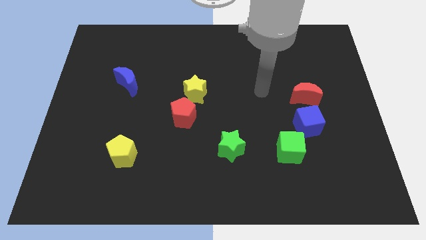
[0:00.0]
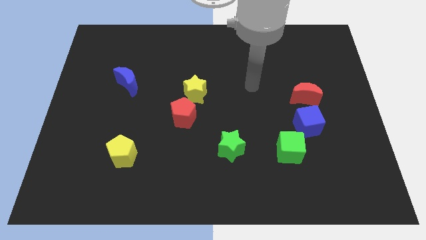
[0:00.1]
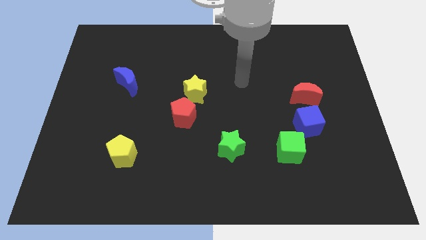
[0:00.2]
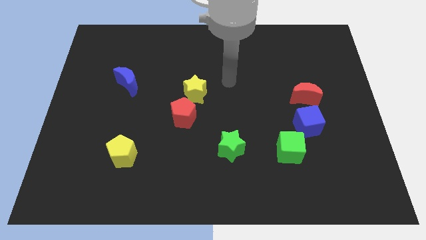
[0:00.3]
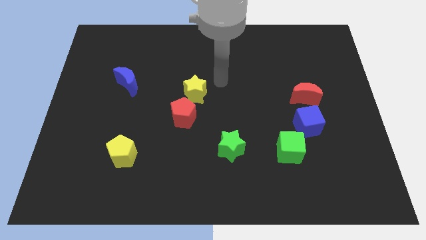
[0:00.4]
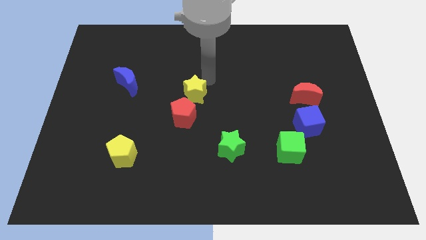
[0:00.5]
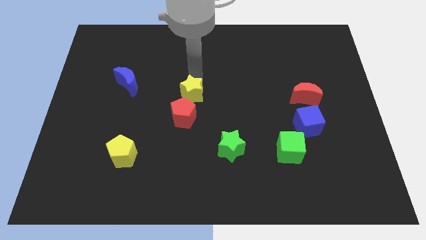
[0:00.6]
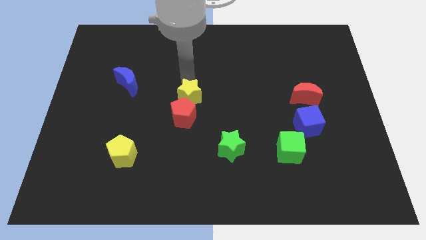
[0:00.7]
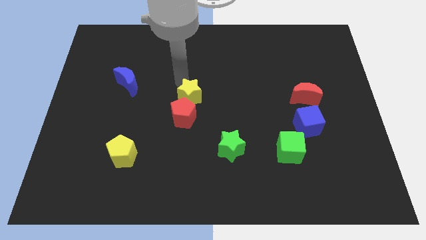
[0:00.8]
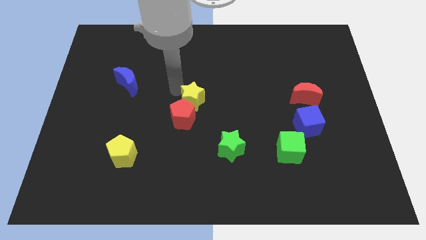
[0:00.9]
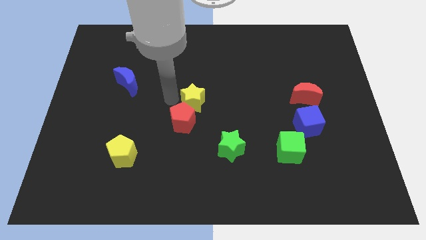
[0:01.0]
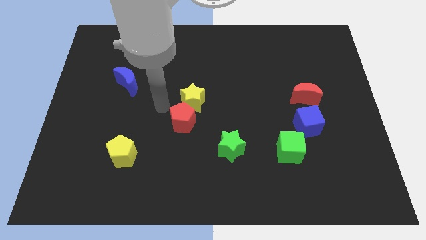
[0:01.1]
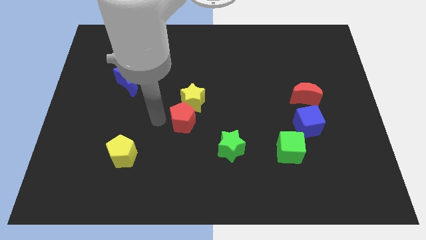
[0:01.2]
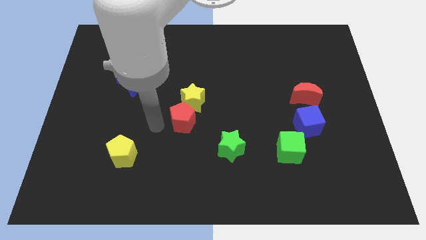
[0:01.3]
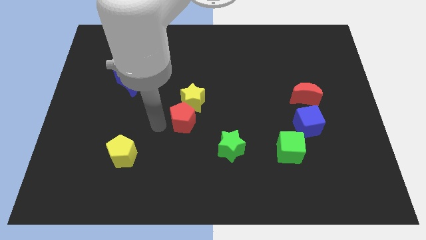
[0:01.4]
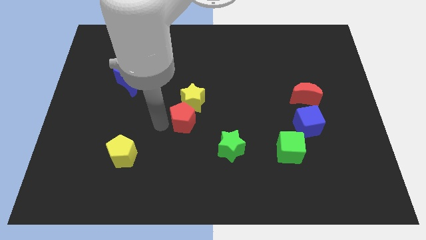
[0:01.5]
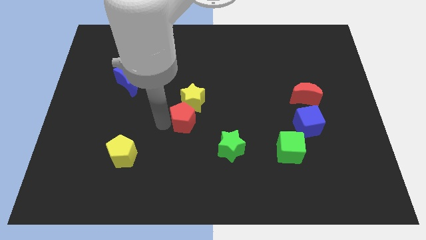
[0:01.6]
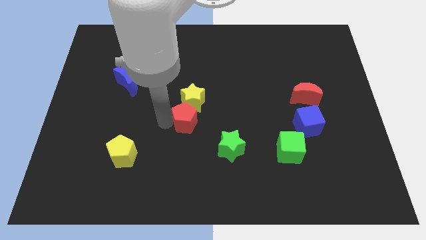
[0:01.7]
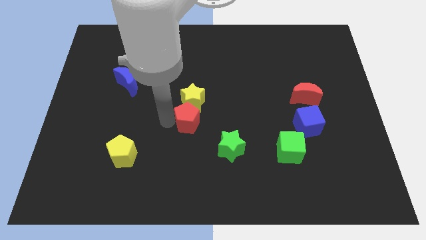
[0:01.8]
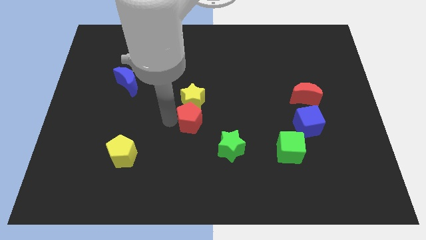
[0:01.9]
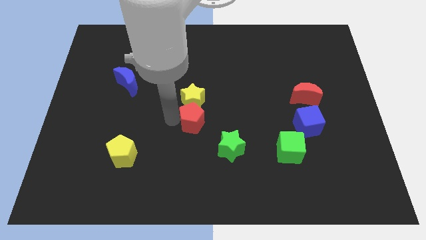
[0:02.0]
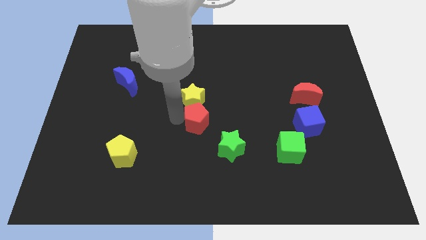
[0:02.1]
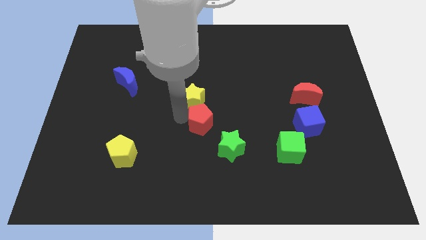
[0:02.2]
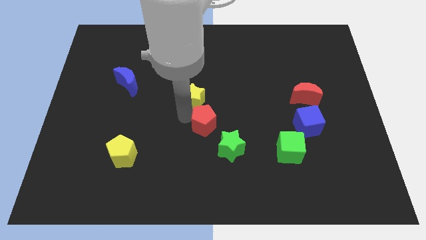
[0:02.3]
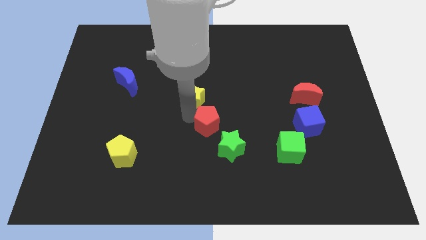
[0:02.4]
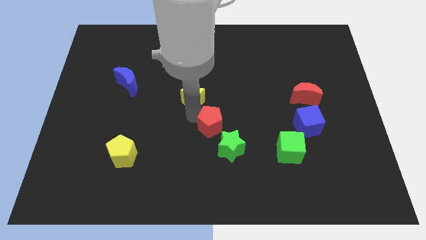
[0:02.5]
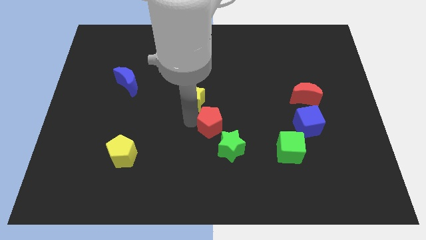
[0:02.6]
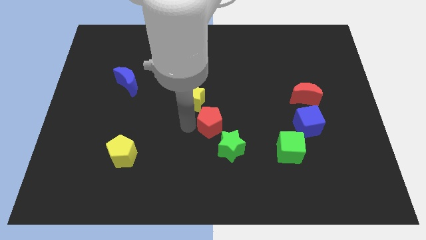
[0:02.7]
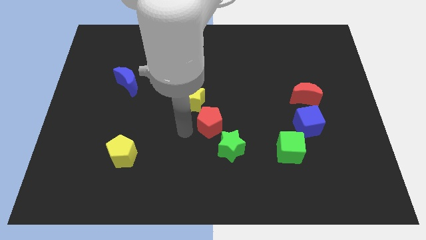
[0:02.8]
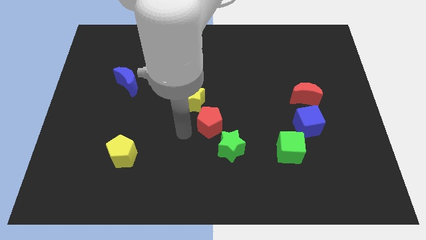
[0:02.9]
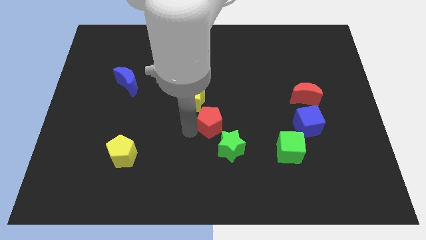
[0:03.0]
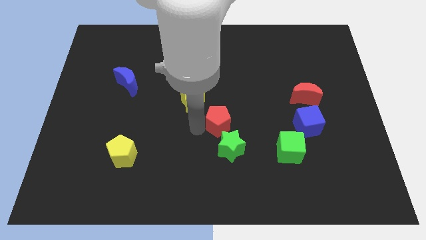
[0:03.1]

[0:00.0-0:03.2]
move the red pentagon a little bit right

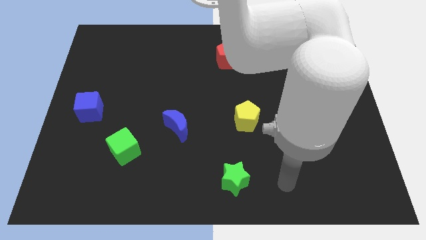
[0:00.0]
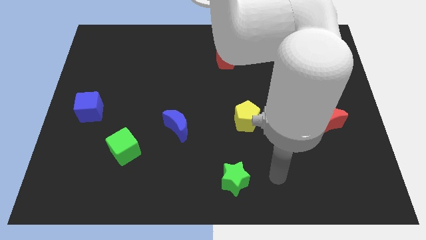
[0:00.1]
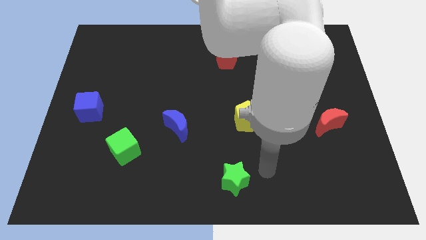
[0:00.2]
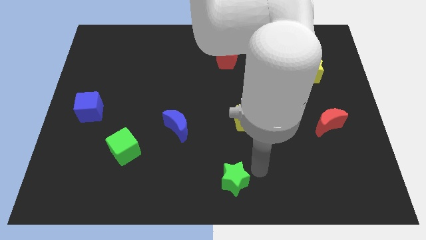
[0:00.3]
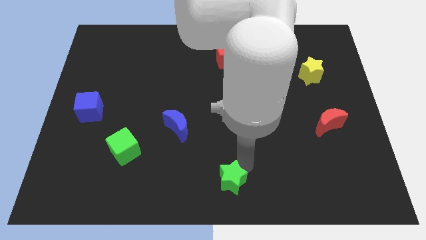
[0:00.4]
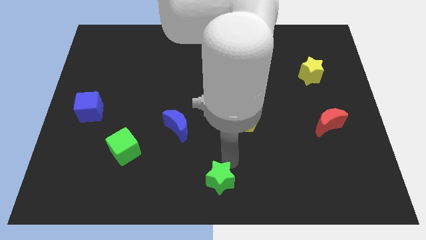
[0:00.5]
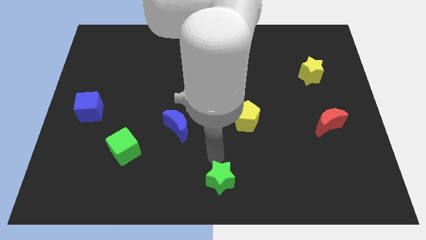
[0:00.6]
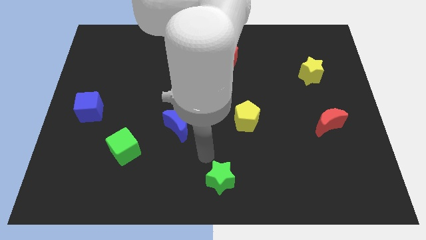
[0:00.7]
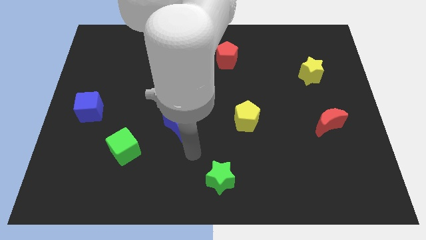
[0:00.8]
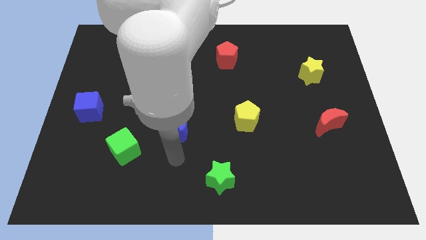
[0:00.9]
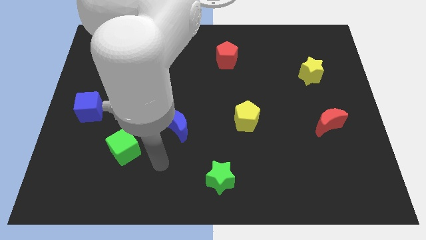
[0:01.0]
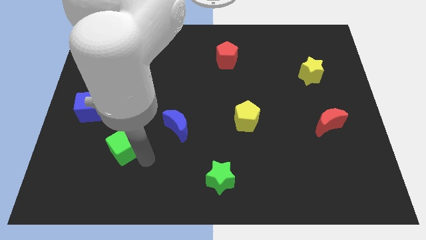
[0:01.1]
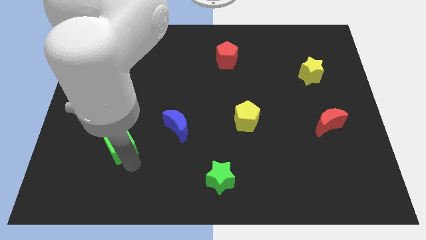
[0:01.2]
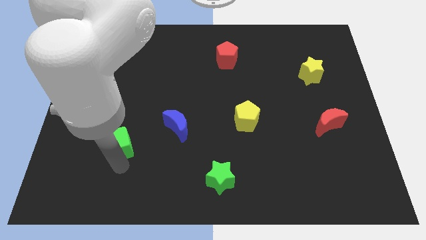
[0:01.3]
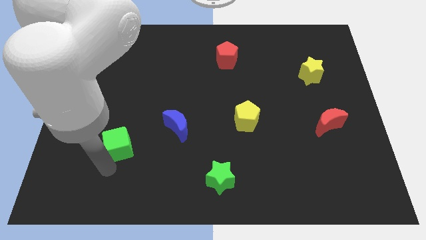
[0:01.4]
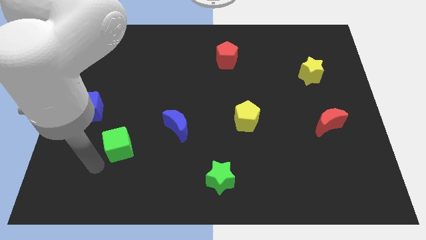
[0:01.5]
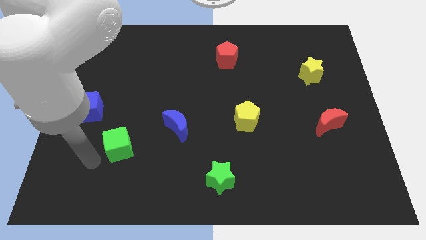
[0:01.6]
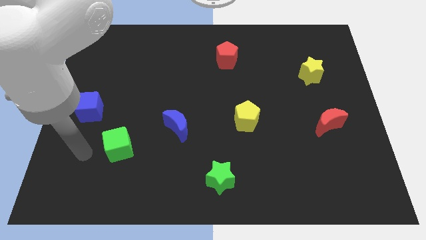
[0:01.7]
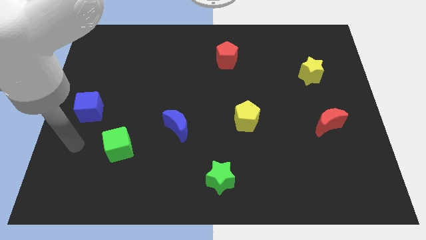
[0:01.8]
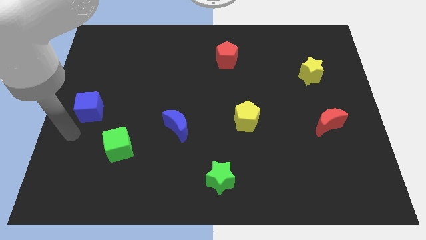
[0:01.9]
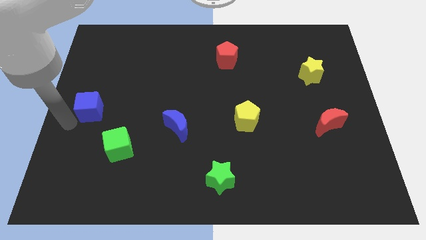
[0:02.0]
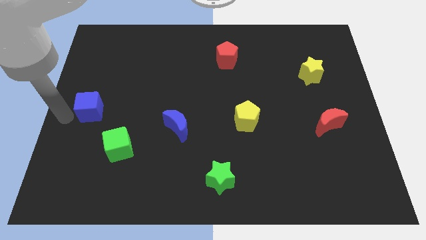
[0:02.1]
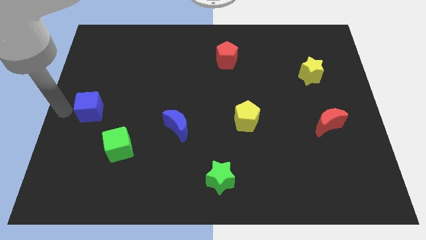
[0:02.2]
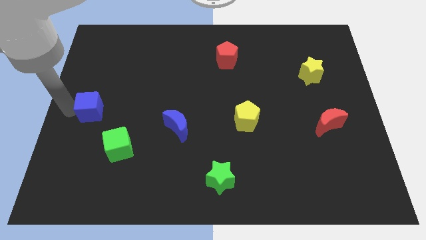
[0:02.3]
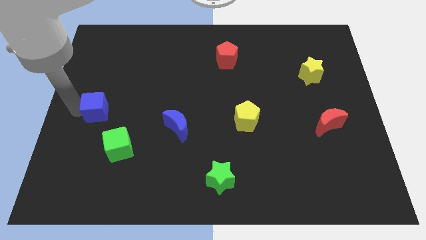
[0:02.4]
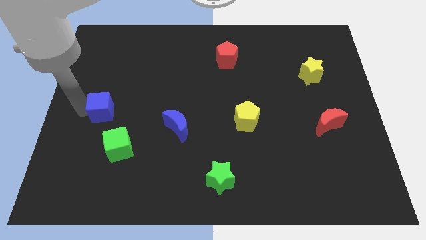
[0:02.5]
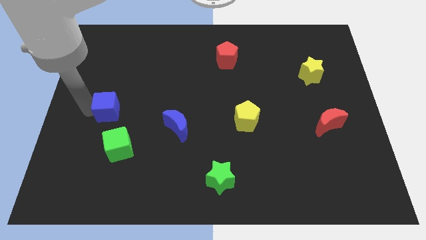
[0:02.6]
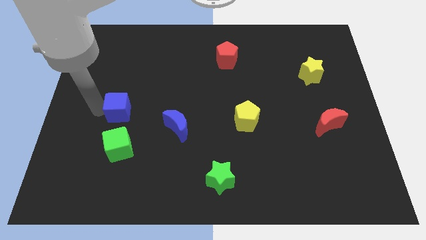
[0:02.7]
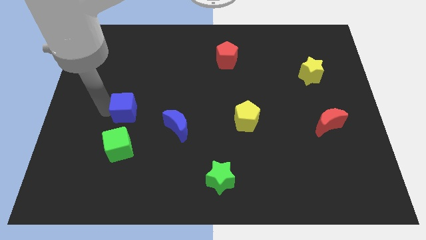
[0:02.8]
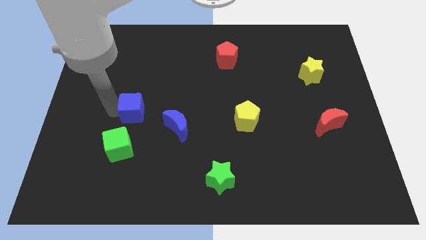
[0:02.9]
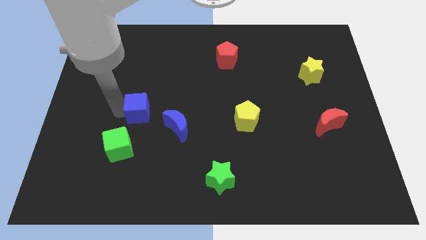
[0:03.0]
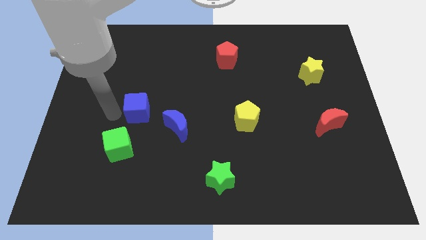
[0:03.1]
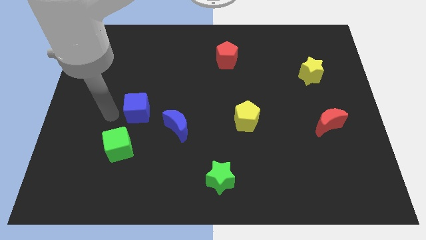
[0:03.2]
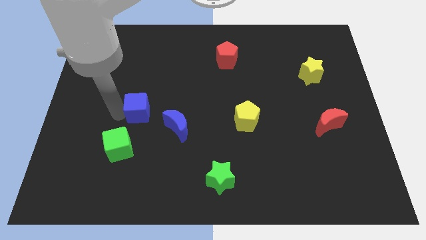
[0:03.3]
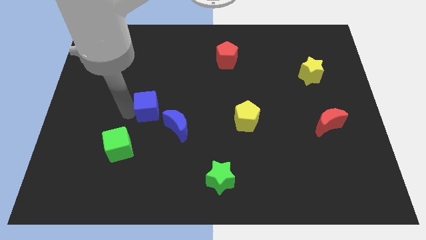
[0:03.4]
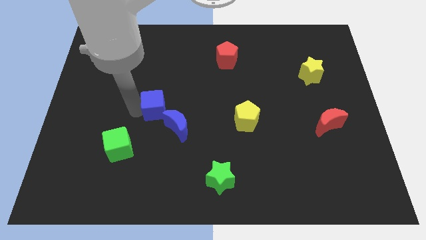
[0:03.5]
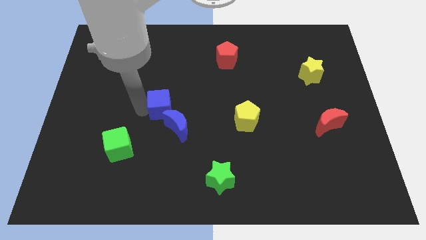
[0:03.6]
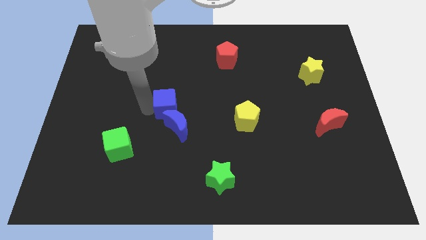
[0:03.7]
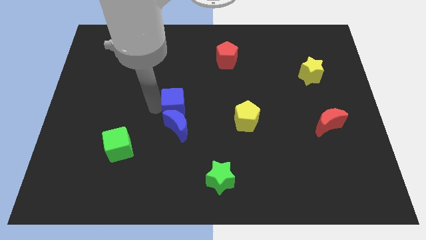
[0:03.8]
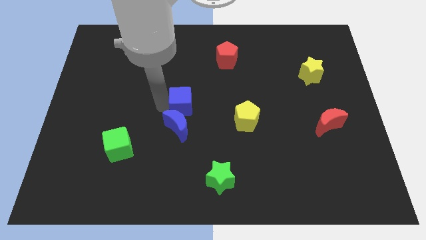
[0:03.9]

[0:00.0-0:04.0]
move the blue cube to the right

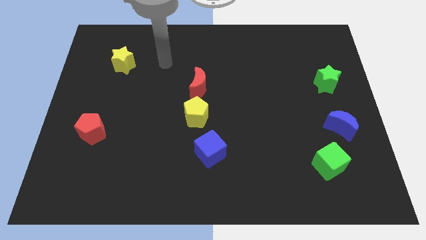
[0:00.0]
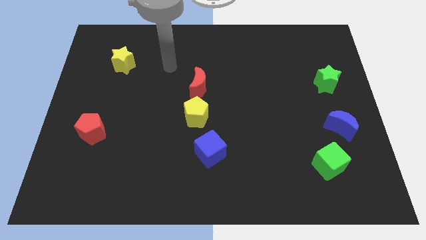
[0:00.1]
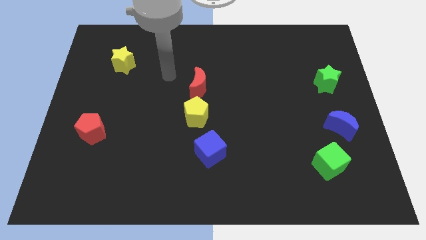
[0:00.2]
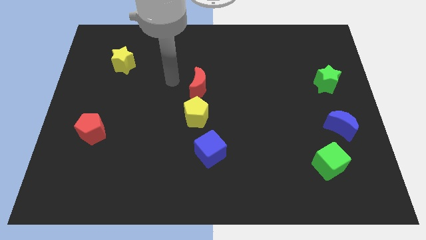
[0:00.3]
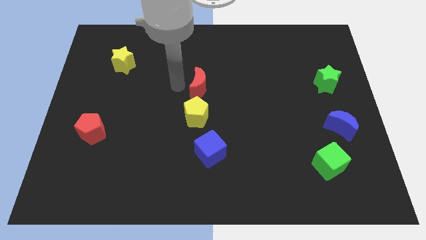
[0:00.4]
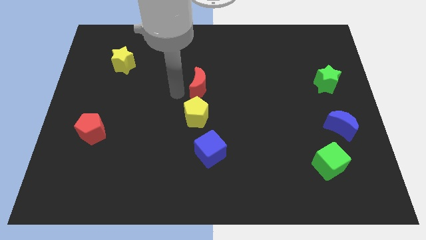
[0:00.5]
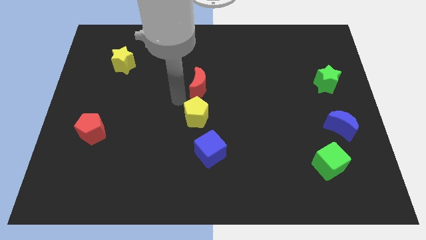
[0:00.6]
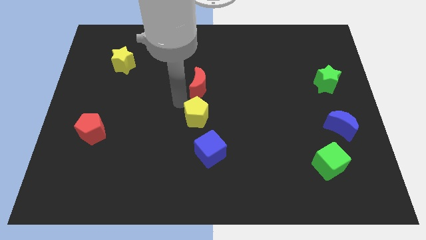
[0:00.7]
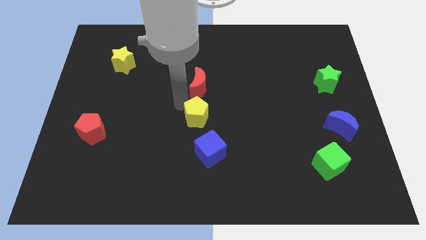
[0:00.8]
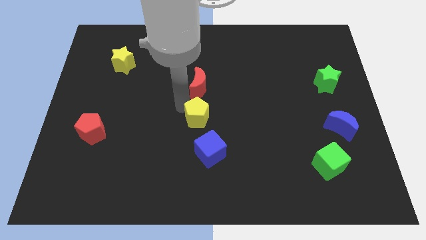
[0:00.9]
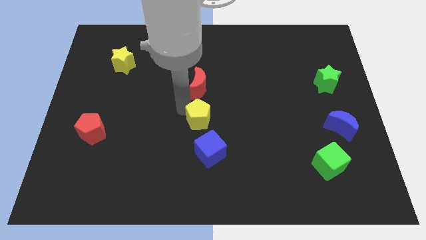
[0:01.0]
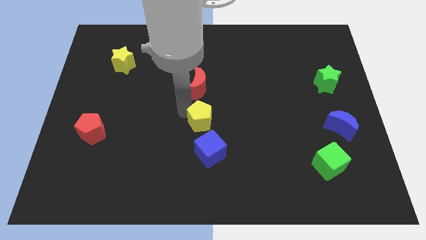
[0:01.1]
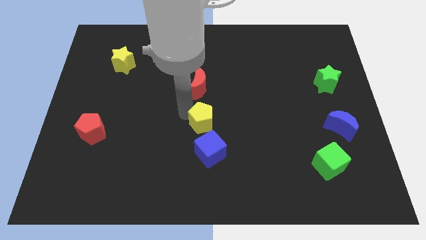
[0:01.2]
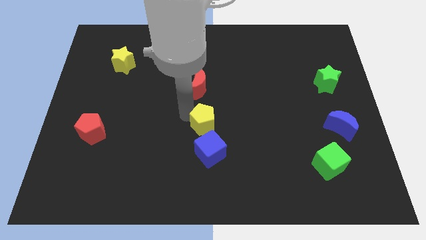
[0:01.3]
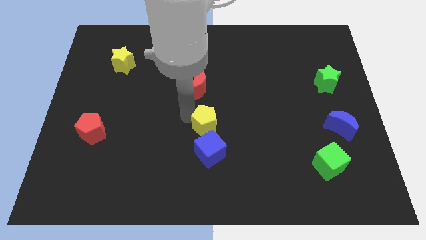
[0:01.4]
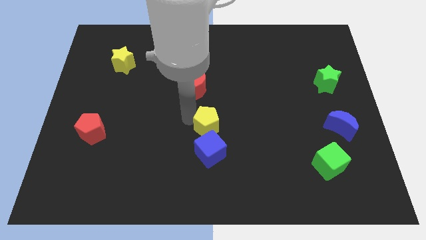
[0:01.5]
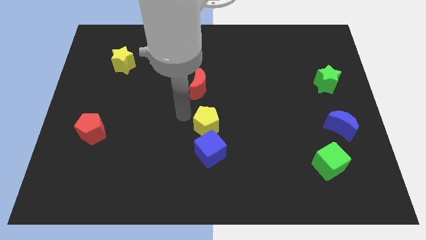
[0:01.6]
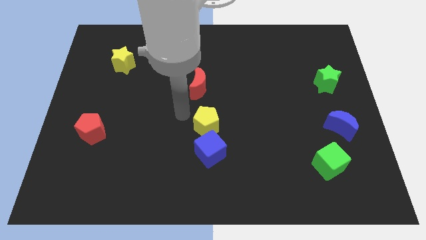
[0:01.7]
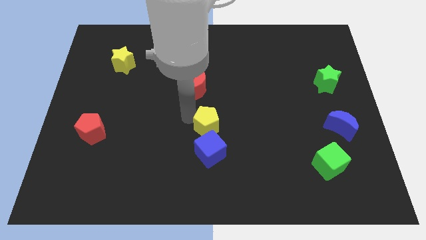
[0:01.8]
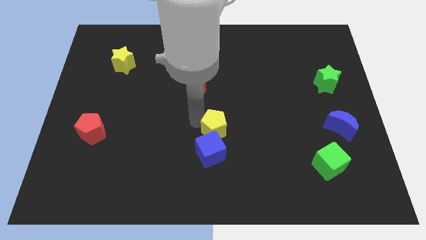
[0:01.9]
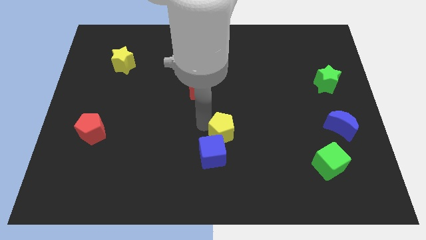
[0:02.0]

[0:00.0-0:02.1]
slide the yellow pentagon down and right slightly
